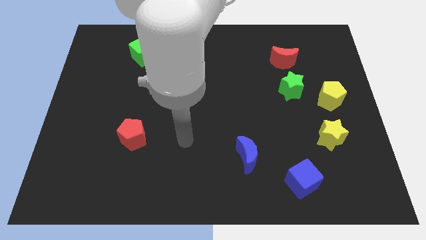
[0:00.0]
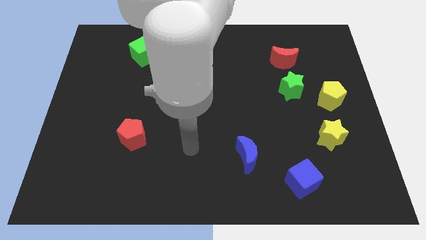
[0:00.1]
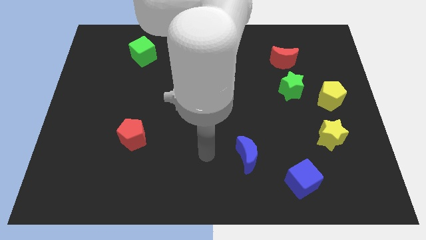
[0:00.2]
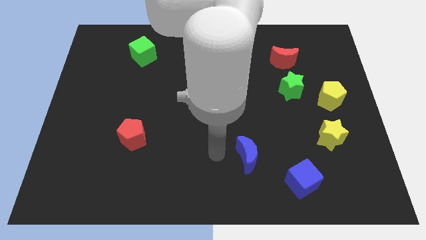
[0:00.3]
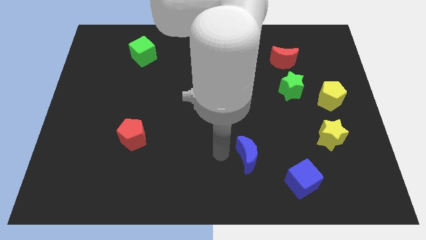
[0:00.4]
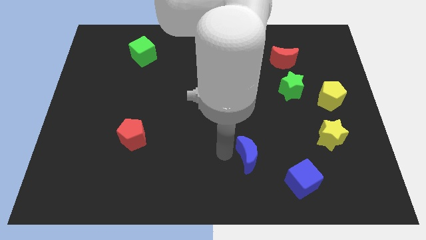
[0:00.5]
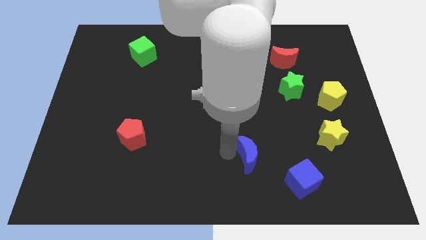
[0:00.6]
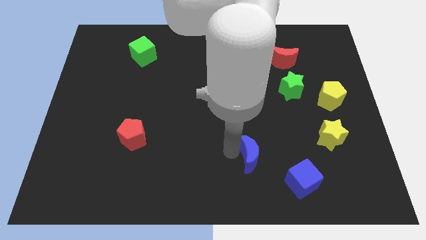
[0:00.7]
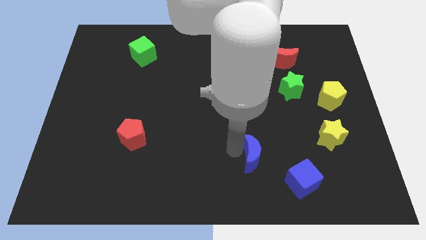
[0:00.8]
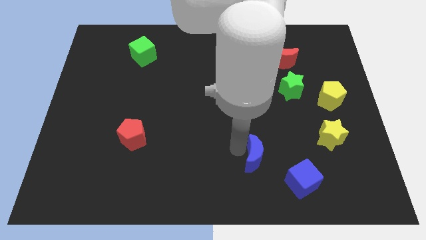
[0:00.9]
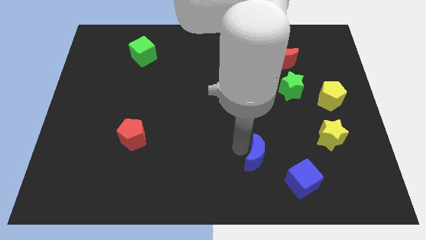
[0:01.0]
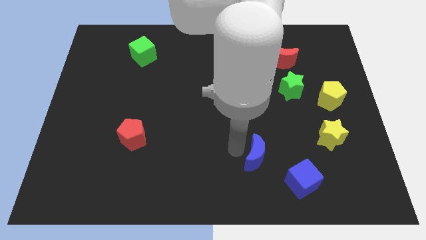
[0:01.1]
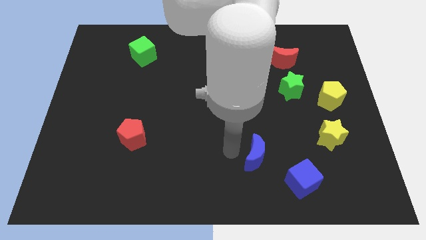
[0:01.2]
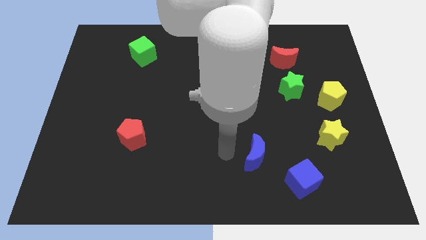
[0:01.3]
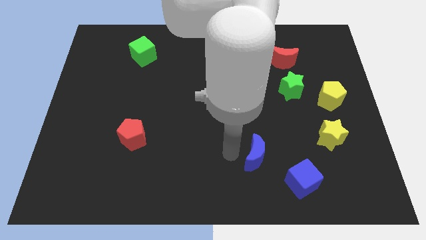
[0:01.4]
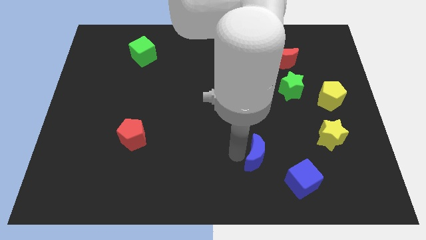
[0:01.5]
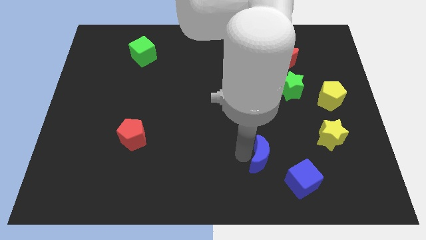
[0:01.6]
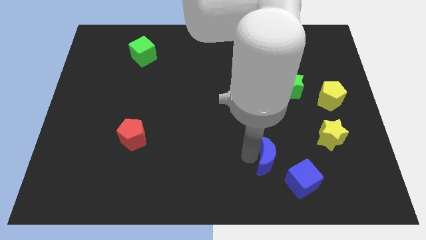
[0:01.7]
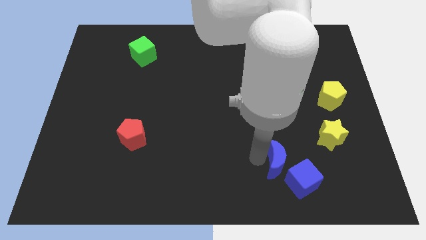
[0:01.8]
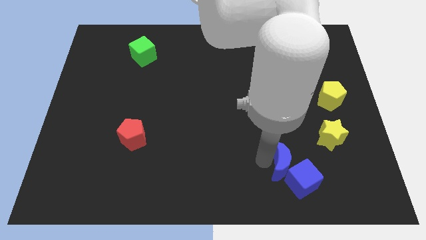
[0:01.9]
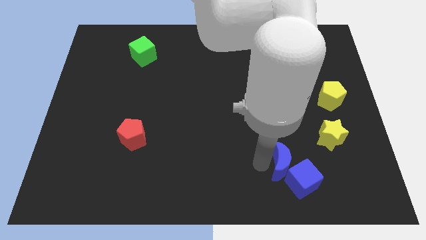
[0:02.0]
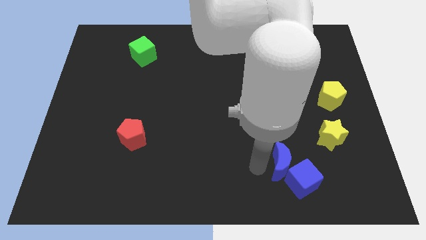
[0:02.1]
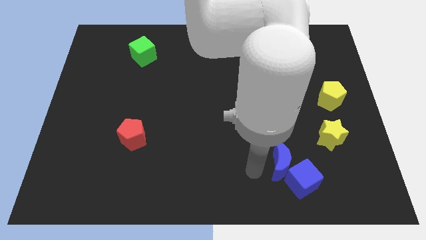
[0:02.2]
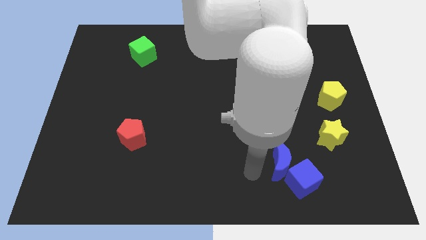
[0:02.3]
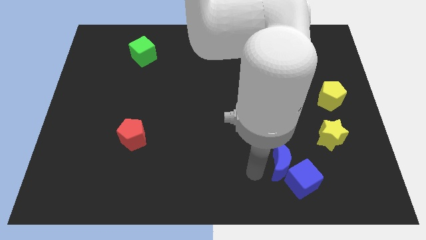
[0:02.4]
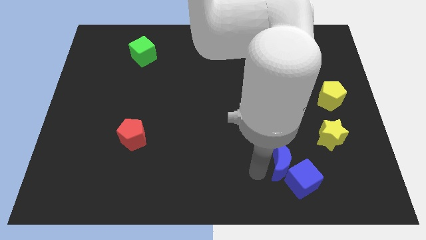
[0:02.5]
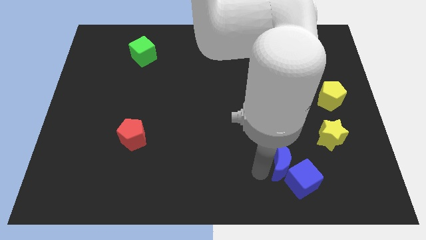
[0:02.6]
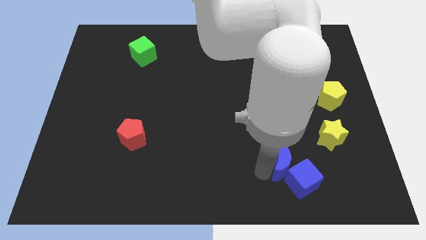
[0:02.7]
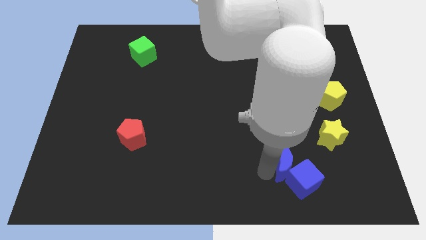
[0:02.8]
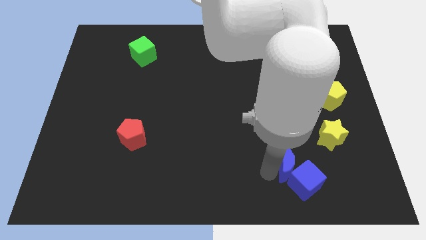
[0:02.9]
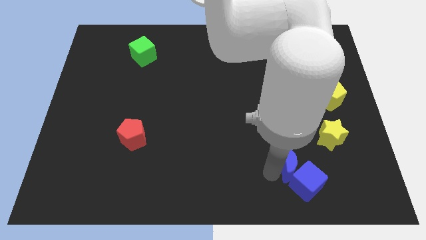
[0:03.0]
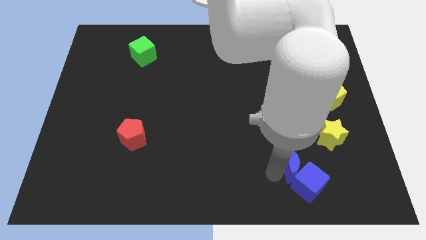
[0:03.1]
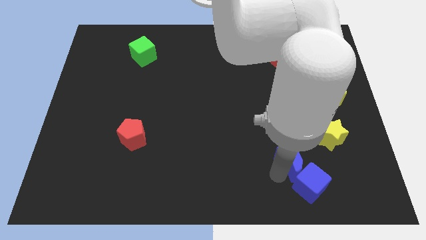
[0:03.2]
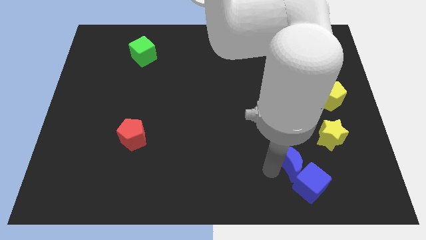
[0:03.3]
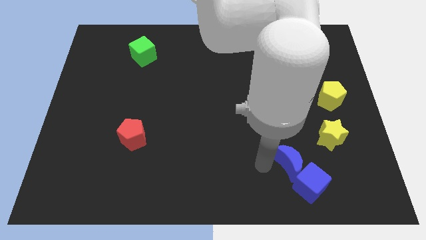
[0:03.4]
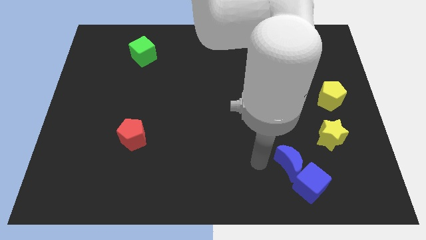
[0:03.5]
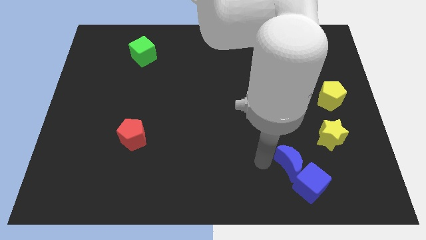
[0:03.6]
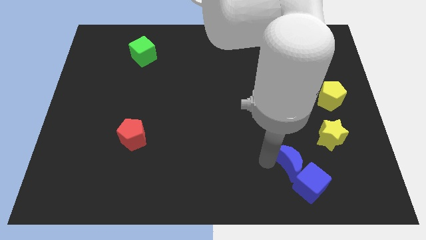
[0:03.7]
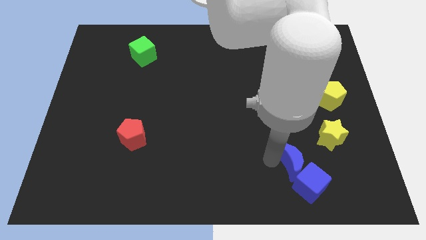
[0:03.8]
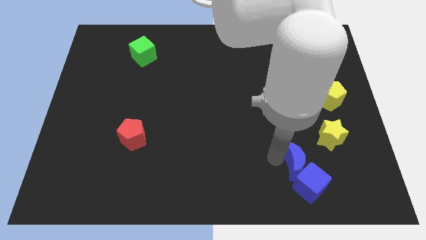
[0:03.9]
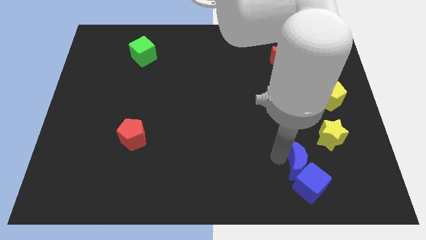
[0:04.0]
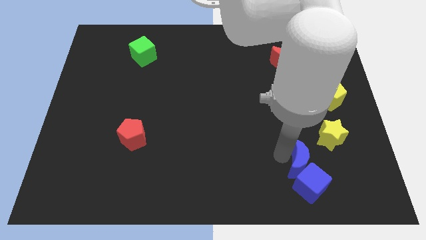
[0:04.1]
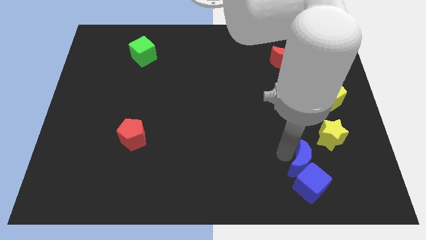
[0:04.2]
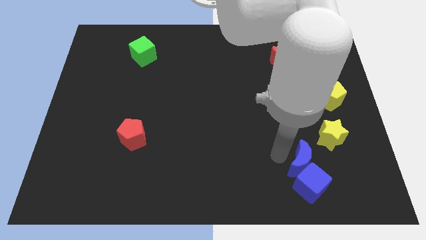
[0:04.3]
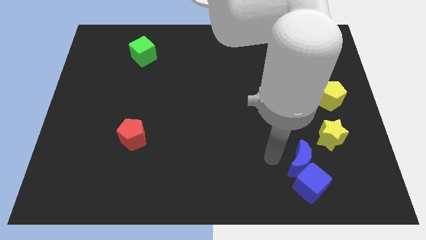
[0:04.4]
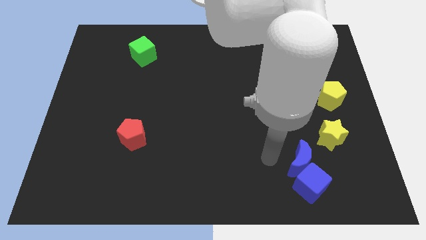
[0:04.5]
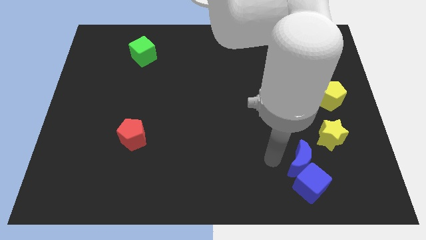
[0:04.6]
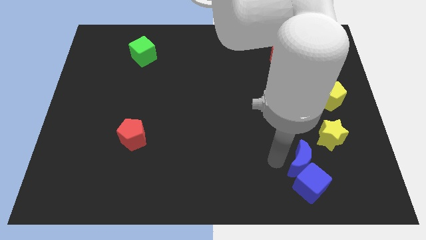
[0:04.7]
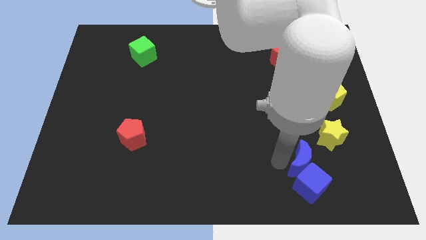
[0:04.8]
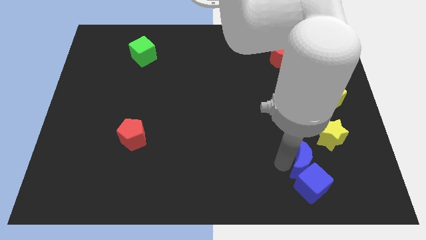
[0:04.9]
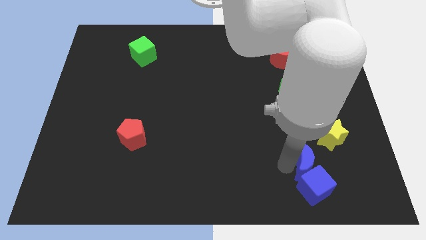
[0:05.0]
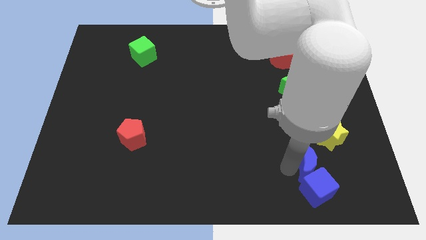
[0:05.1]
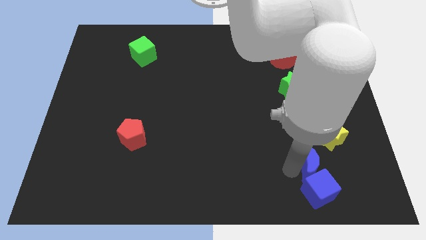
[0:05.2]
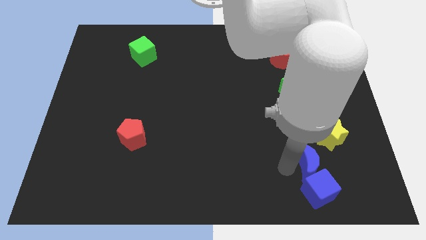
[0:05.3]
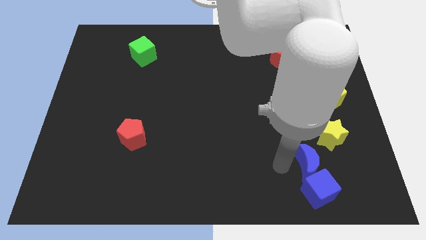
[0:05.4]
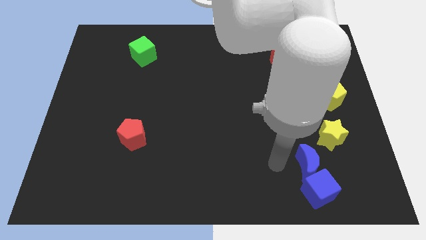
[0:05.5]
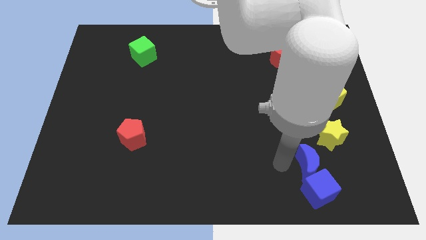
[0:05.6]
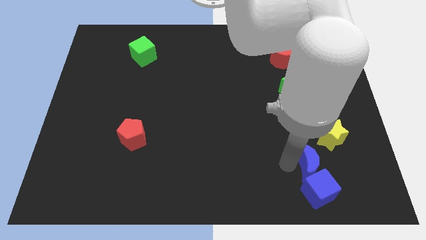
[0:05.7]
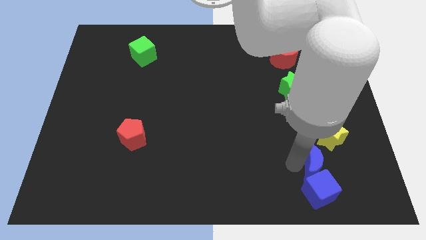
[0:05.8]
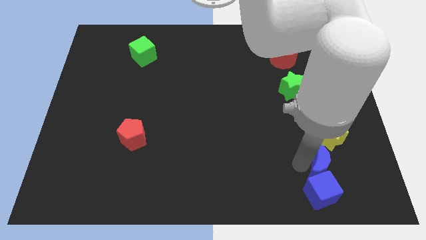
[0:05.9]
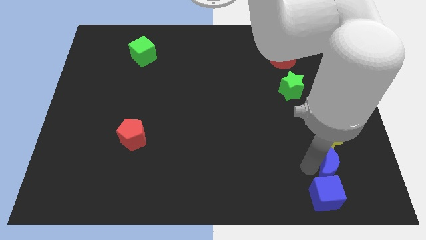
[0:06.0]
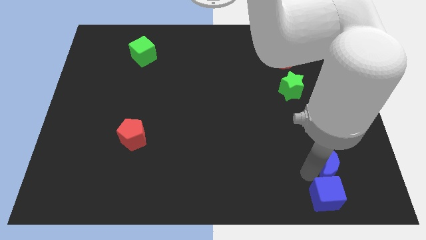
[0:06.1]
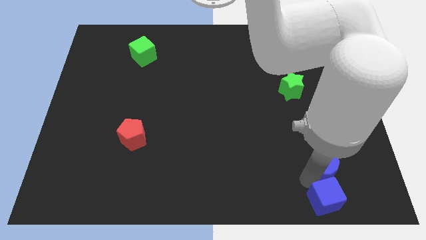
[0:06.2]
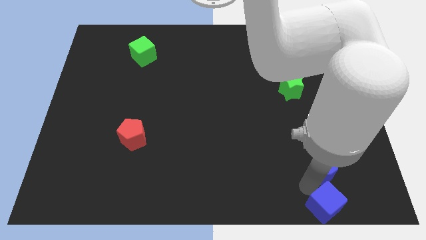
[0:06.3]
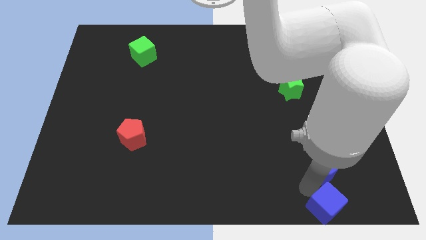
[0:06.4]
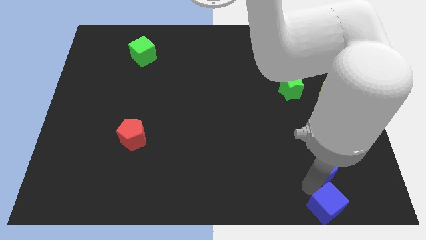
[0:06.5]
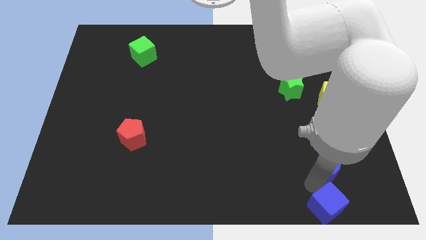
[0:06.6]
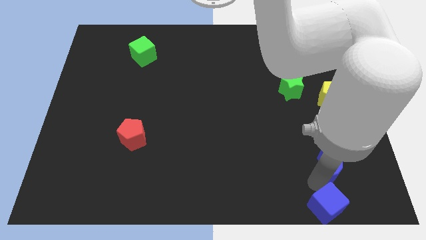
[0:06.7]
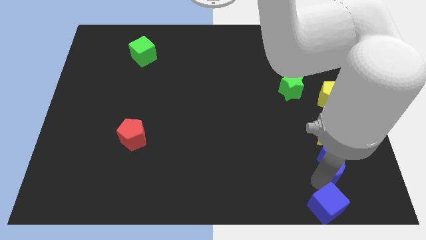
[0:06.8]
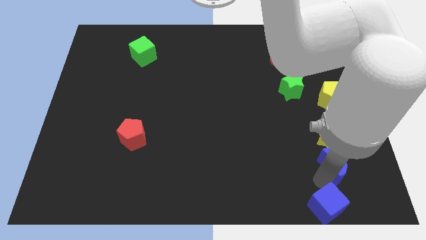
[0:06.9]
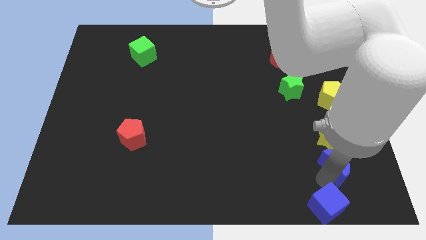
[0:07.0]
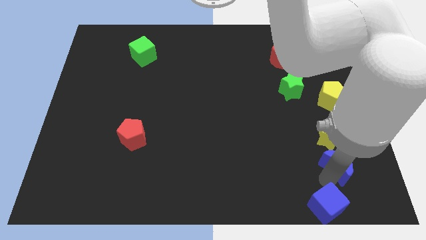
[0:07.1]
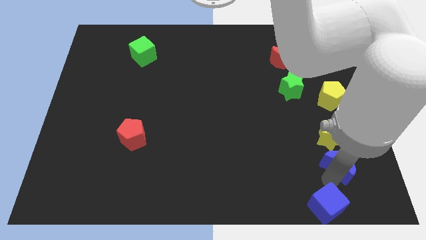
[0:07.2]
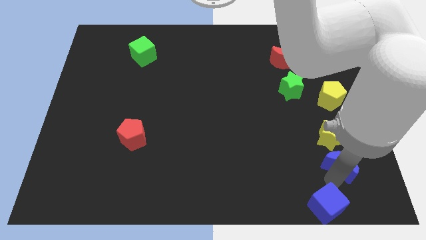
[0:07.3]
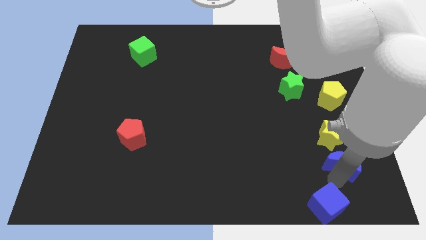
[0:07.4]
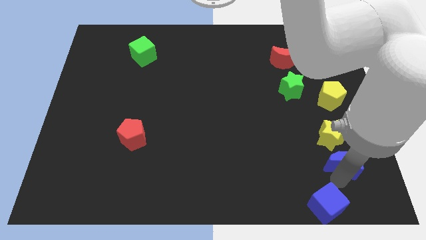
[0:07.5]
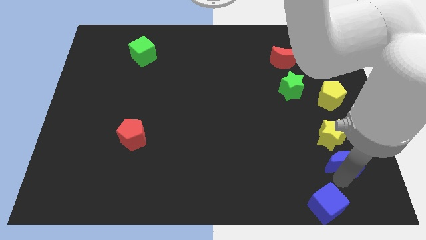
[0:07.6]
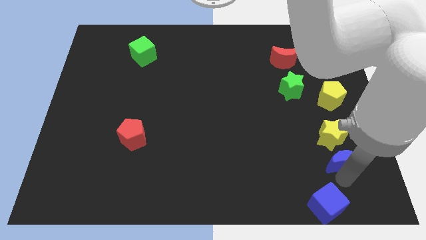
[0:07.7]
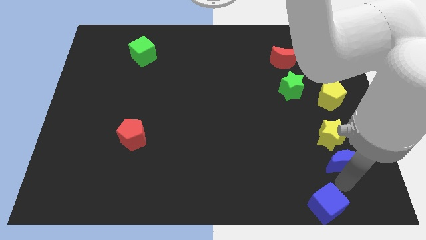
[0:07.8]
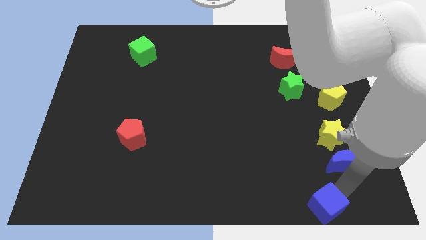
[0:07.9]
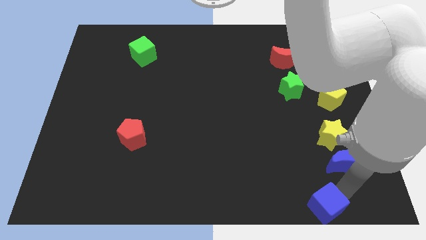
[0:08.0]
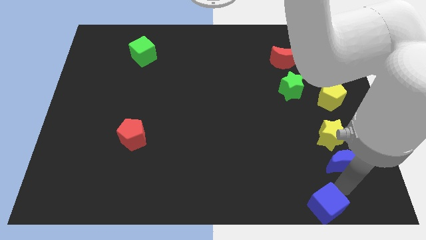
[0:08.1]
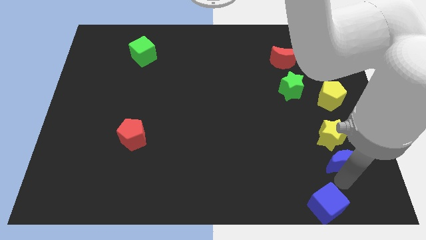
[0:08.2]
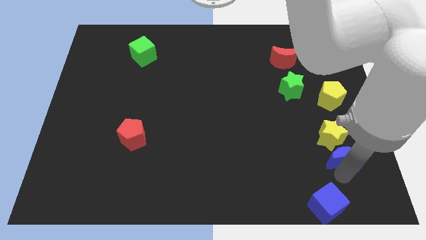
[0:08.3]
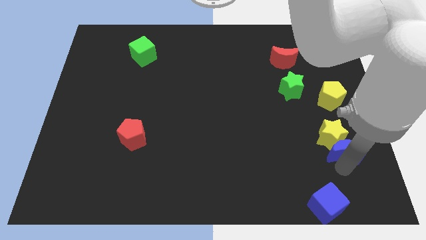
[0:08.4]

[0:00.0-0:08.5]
push the blue moon to the bottom side of the yellow pentagon

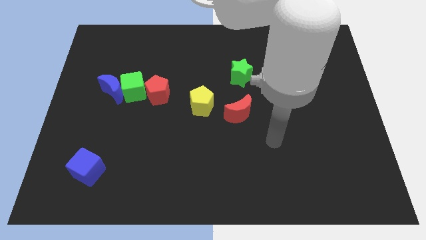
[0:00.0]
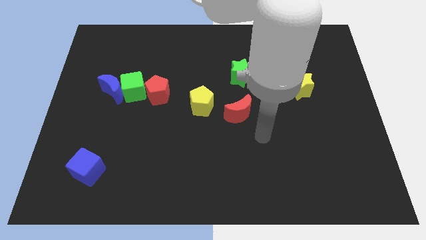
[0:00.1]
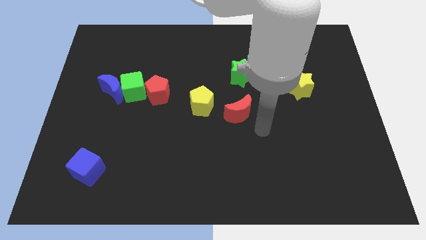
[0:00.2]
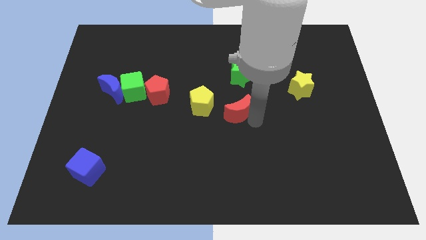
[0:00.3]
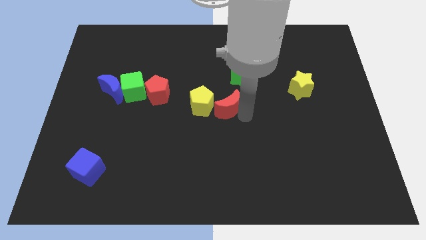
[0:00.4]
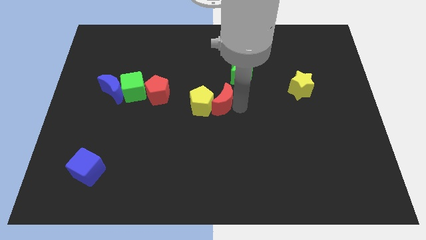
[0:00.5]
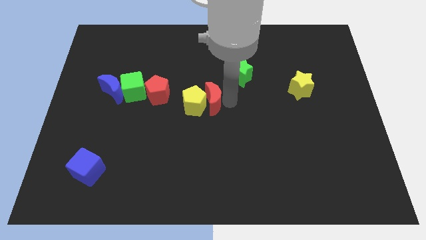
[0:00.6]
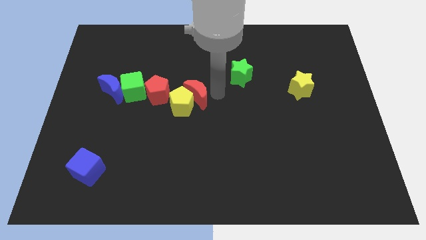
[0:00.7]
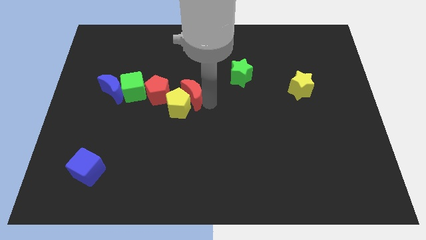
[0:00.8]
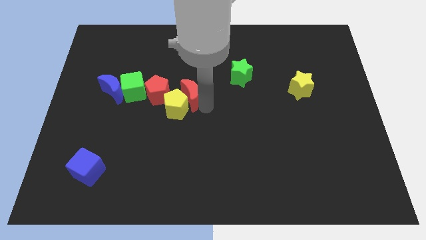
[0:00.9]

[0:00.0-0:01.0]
put the yellow pentagon to the bottom right of the green cube
